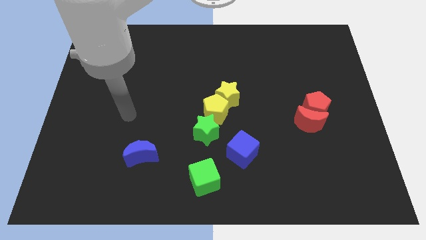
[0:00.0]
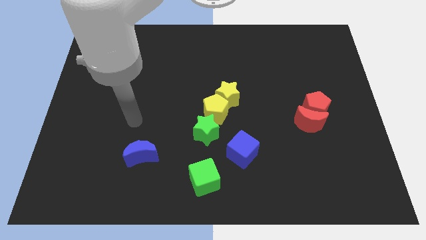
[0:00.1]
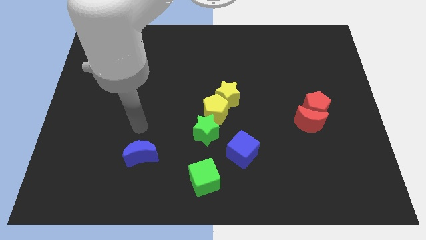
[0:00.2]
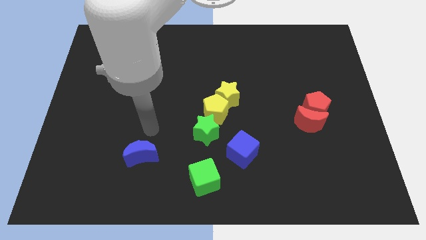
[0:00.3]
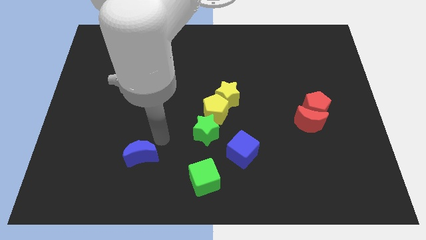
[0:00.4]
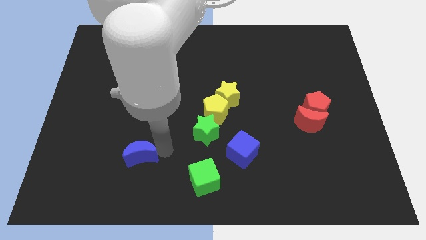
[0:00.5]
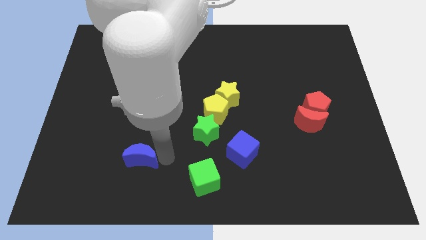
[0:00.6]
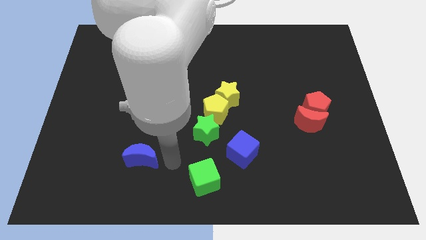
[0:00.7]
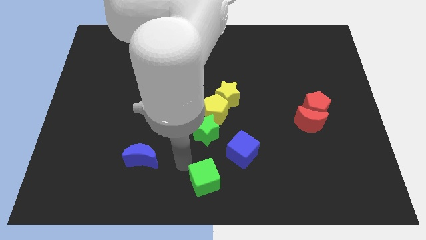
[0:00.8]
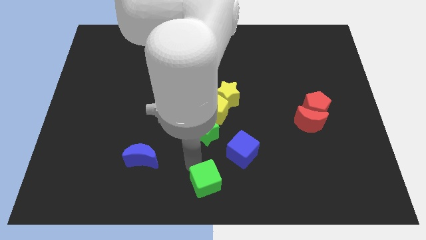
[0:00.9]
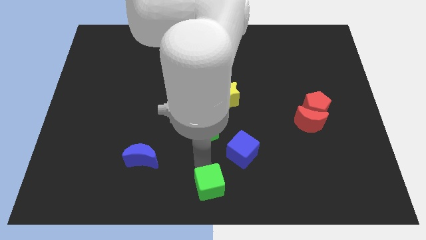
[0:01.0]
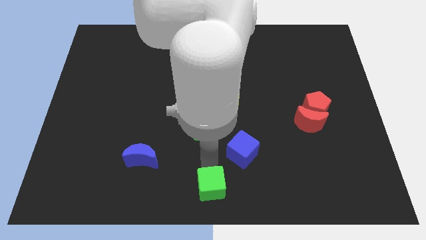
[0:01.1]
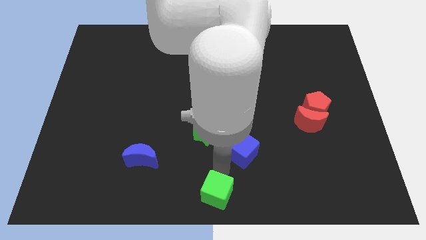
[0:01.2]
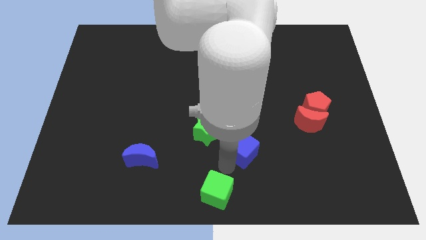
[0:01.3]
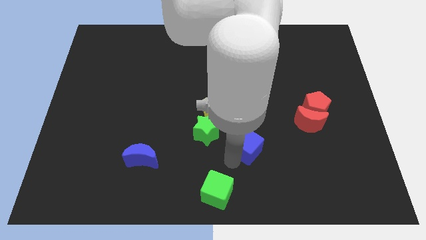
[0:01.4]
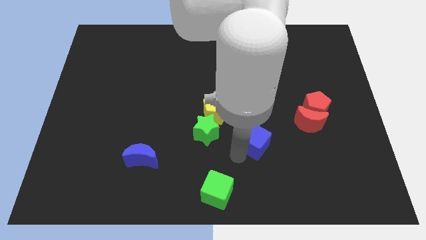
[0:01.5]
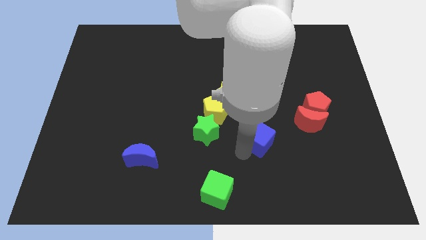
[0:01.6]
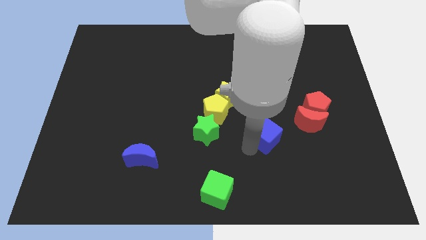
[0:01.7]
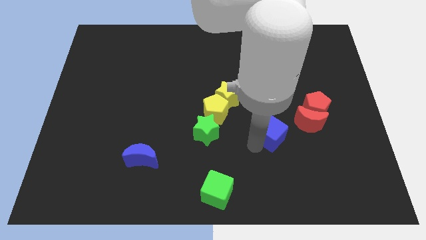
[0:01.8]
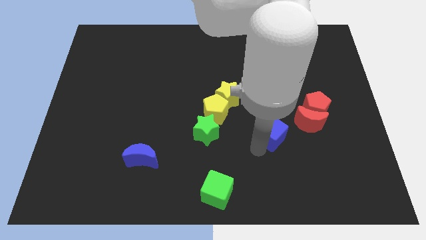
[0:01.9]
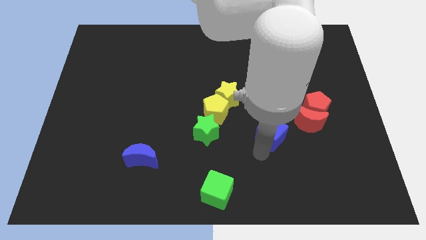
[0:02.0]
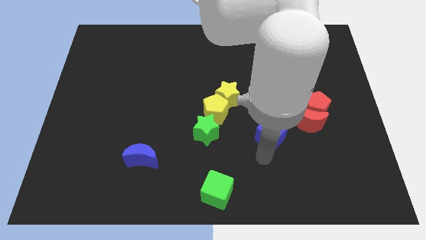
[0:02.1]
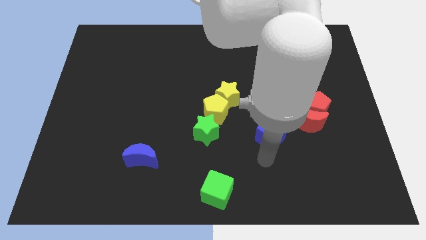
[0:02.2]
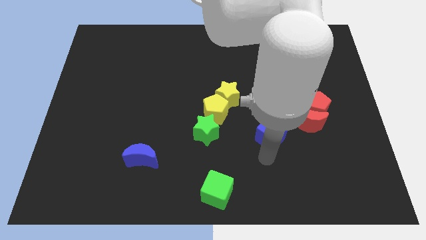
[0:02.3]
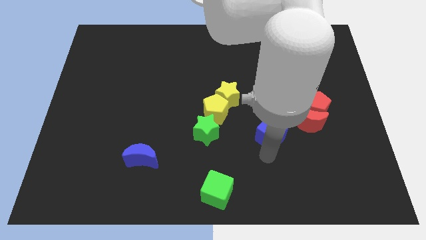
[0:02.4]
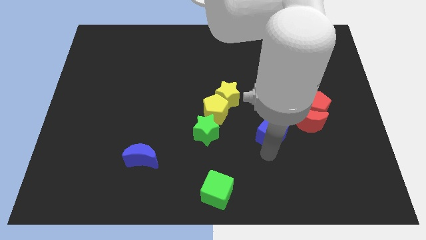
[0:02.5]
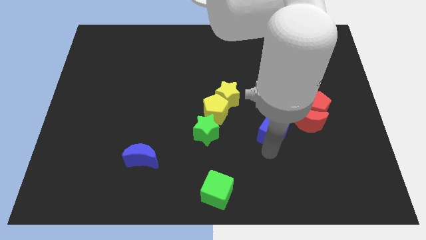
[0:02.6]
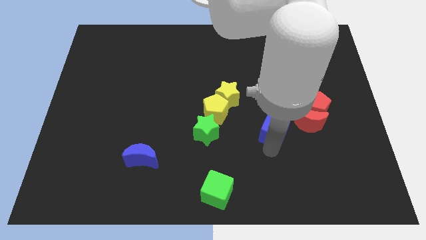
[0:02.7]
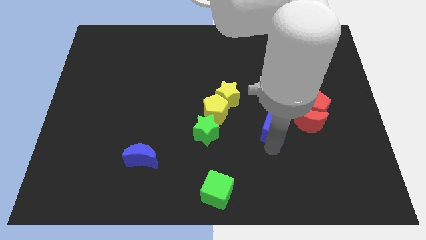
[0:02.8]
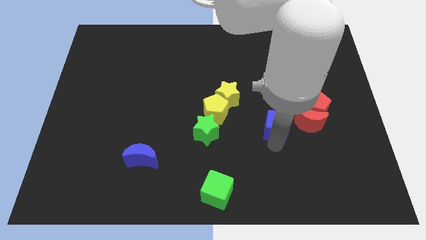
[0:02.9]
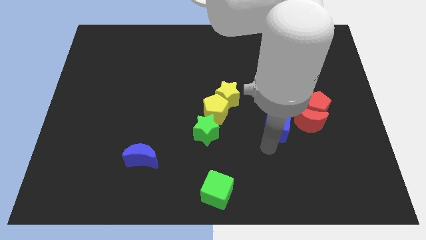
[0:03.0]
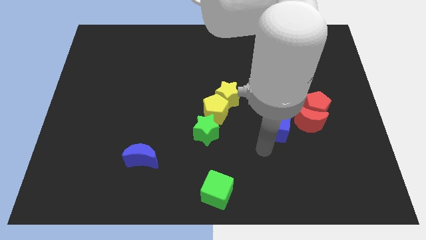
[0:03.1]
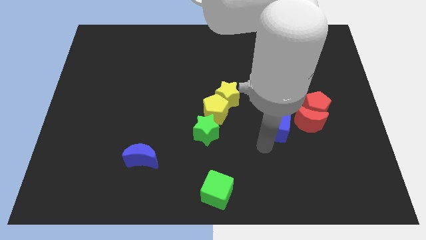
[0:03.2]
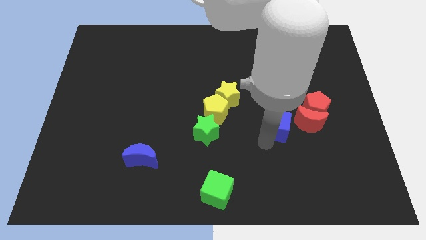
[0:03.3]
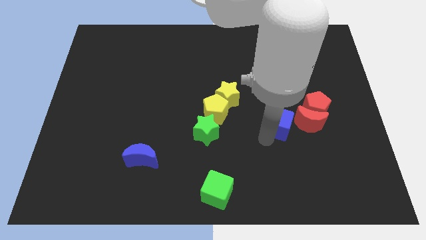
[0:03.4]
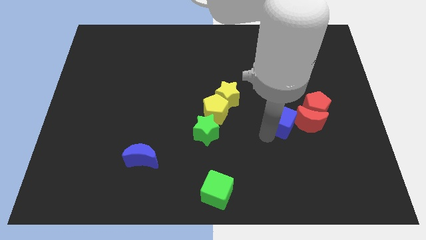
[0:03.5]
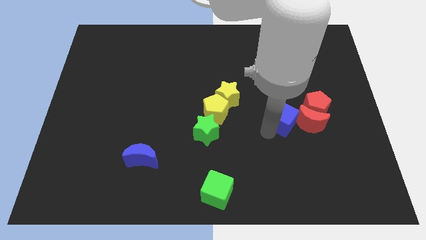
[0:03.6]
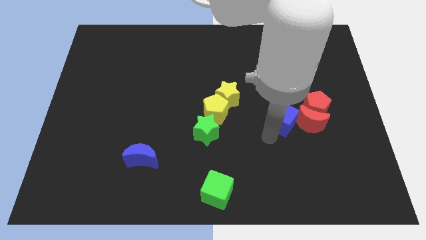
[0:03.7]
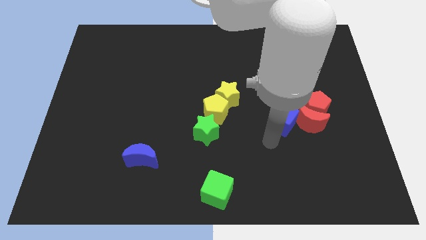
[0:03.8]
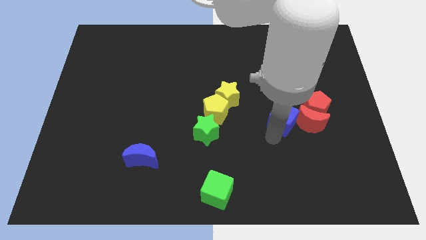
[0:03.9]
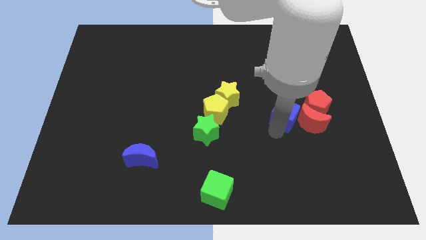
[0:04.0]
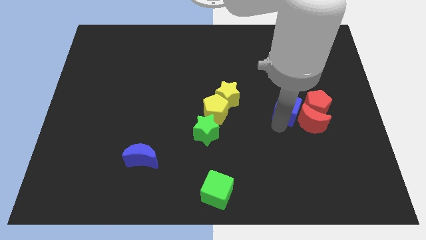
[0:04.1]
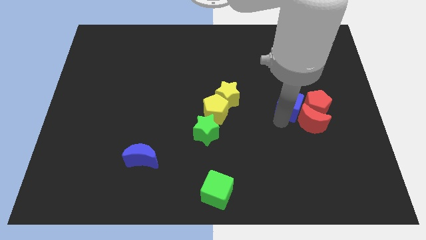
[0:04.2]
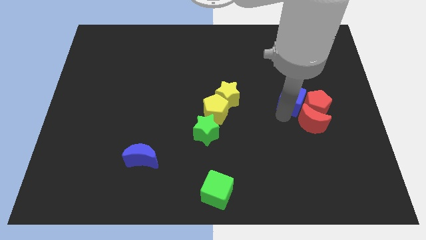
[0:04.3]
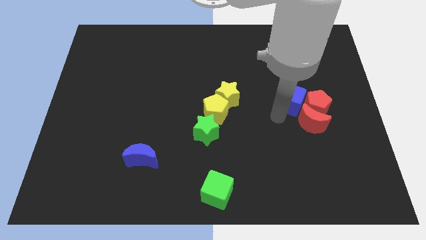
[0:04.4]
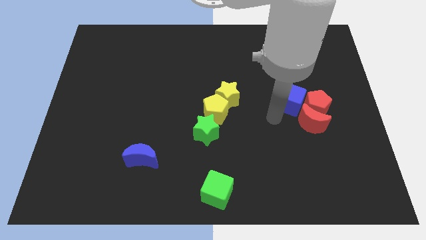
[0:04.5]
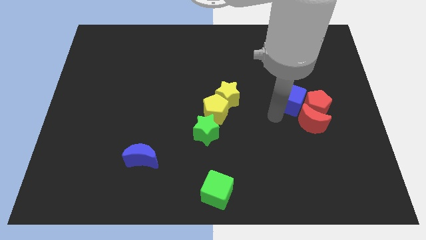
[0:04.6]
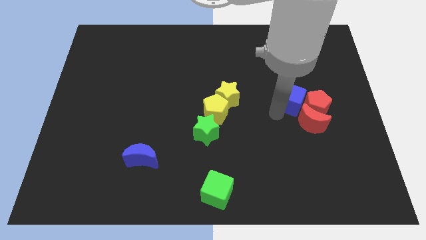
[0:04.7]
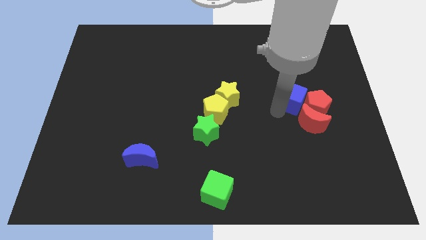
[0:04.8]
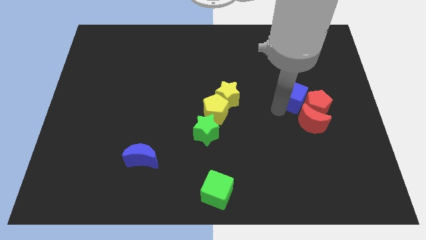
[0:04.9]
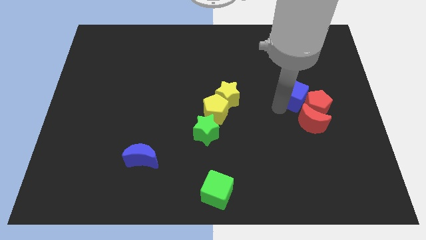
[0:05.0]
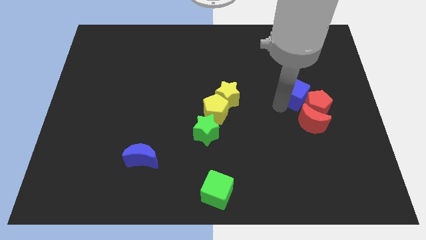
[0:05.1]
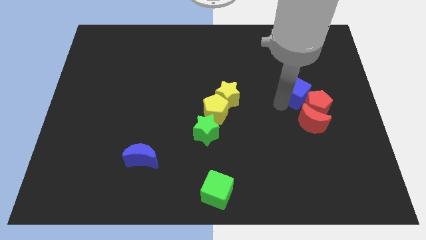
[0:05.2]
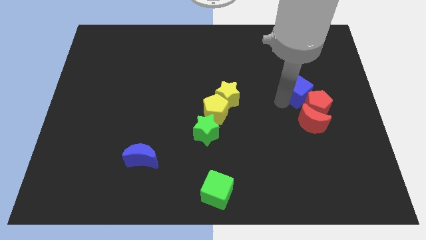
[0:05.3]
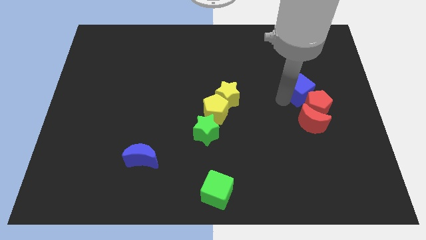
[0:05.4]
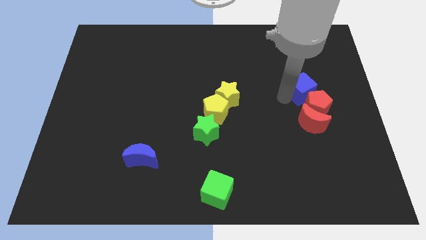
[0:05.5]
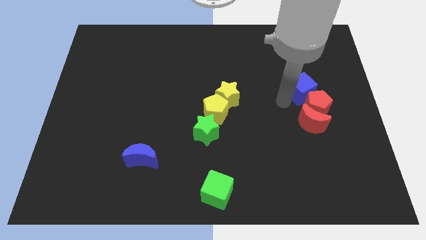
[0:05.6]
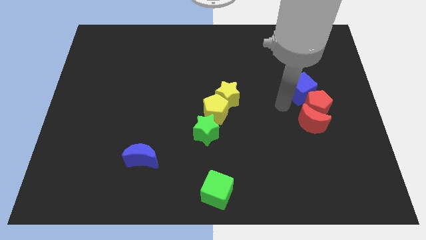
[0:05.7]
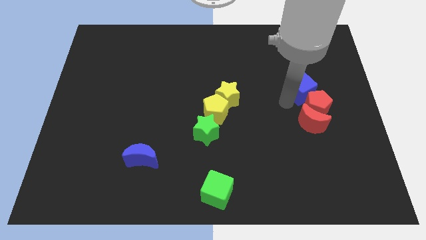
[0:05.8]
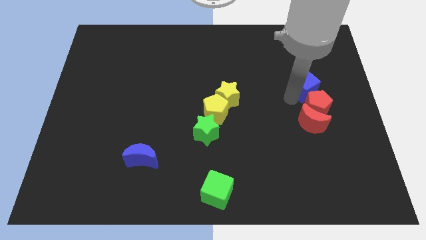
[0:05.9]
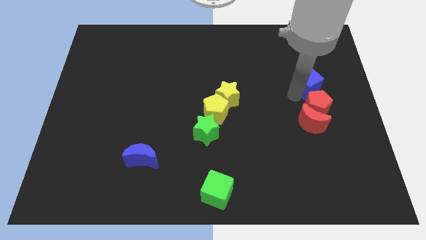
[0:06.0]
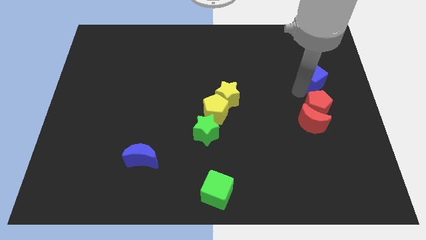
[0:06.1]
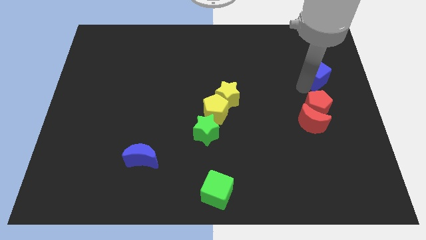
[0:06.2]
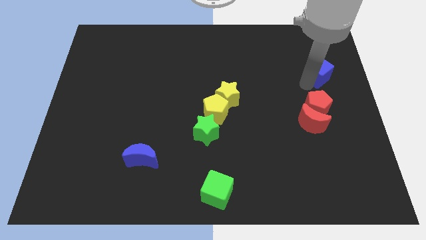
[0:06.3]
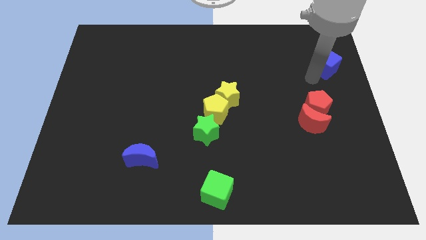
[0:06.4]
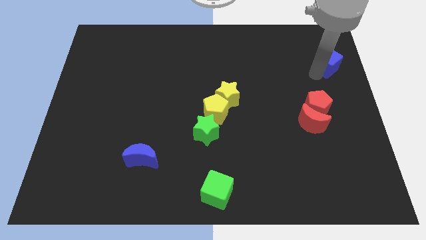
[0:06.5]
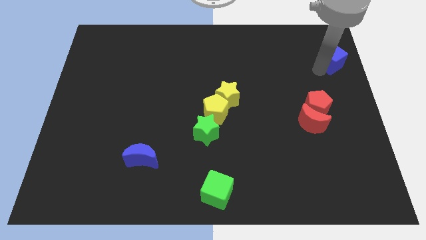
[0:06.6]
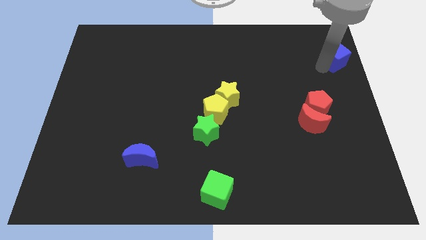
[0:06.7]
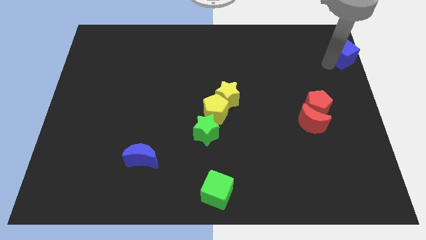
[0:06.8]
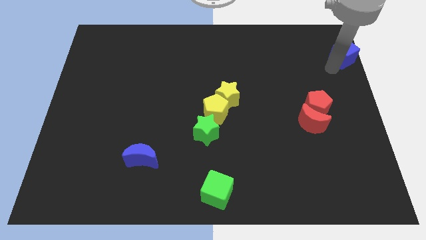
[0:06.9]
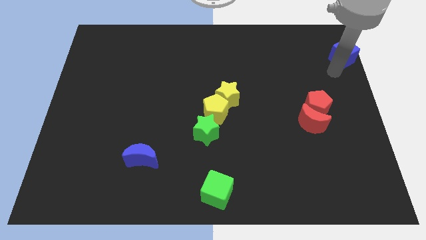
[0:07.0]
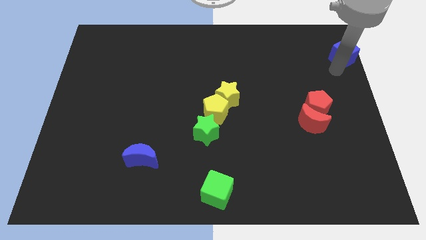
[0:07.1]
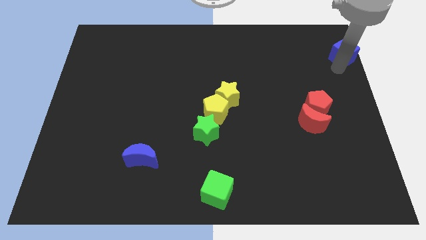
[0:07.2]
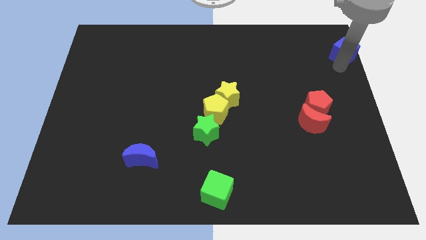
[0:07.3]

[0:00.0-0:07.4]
slide the blue cube to the upper right corner
